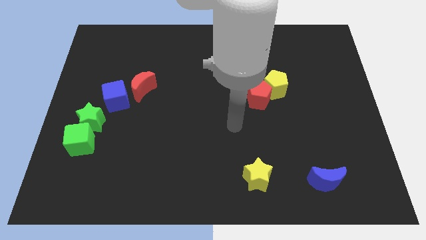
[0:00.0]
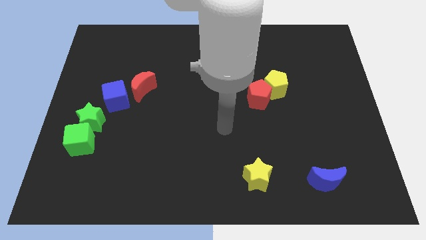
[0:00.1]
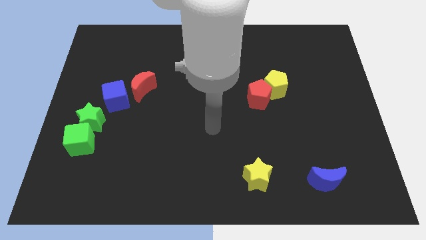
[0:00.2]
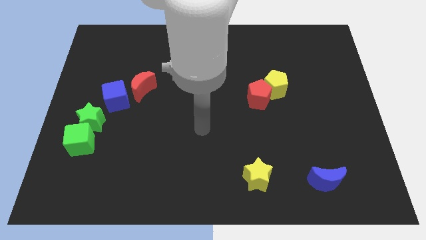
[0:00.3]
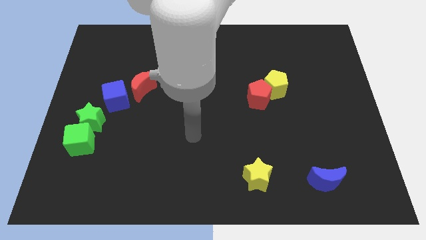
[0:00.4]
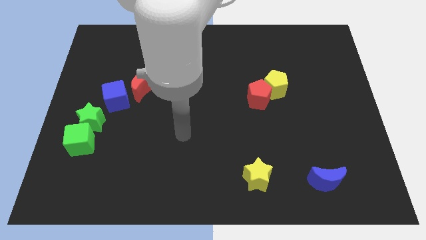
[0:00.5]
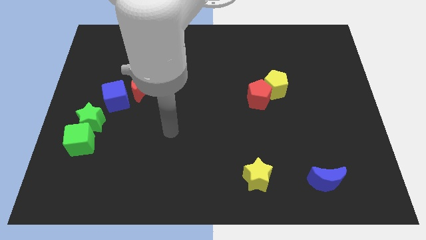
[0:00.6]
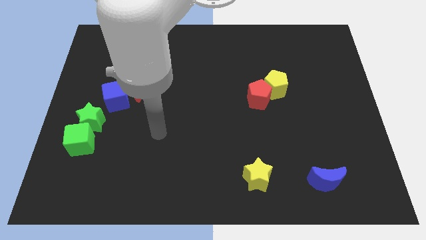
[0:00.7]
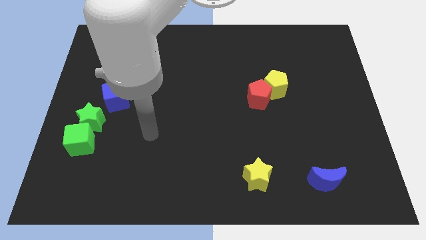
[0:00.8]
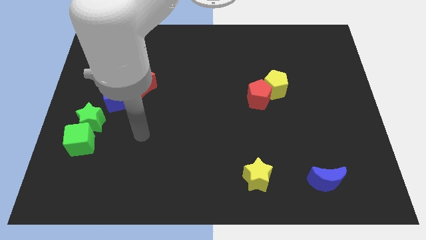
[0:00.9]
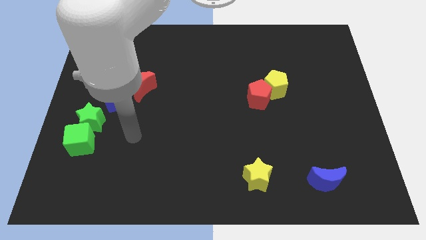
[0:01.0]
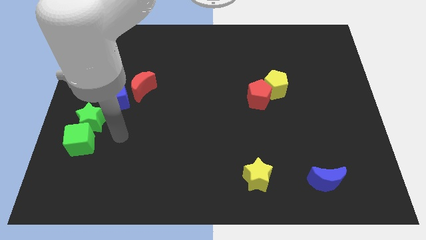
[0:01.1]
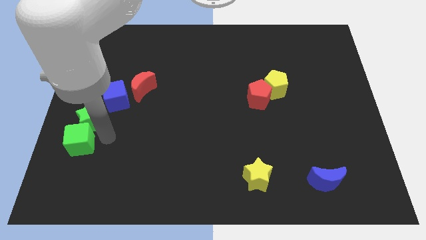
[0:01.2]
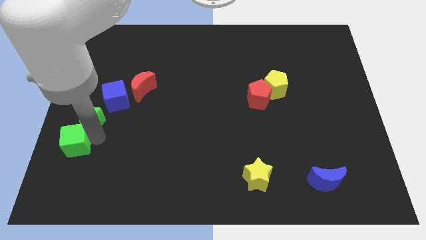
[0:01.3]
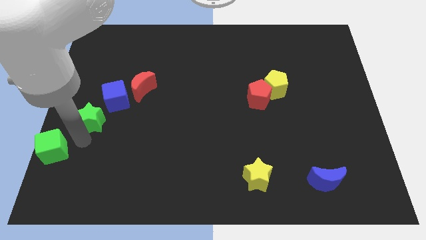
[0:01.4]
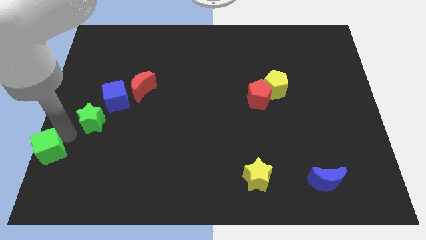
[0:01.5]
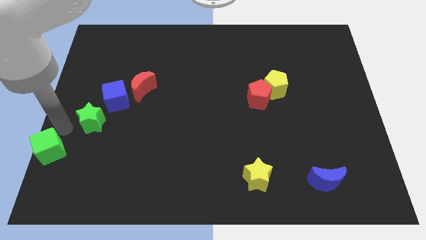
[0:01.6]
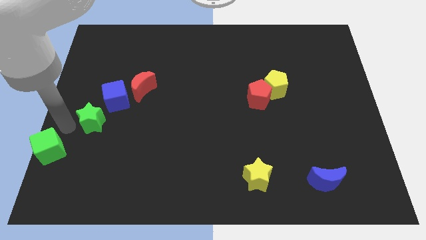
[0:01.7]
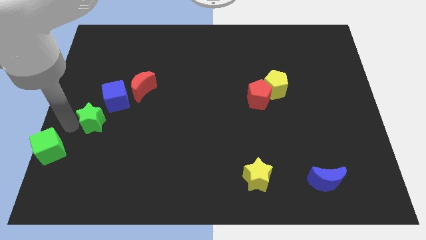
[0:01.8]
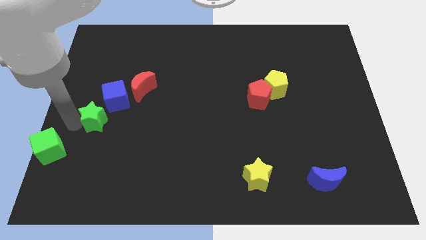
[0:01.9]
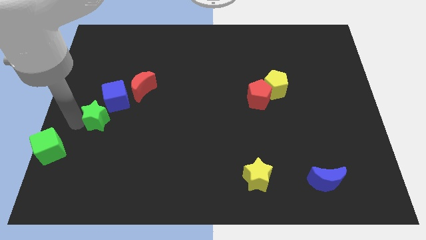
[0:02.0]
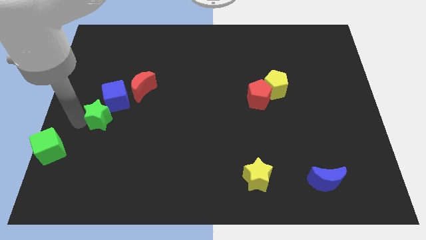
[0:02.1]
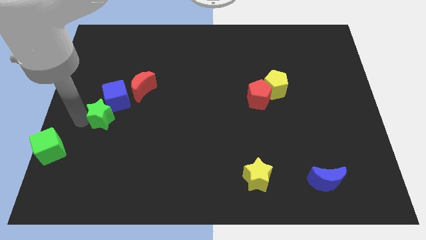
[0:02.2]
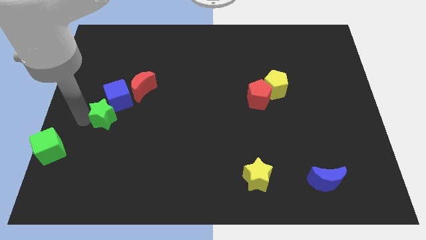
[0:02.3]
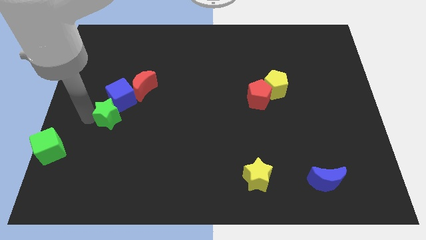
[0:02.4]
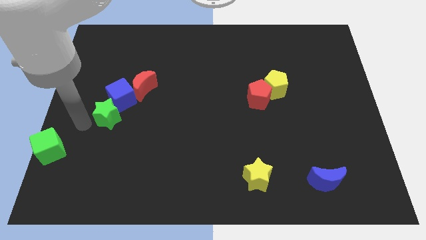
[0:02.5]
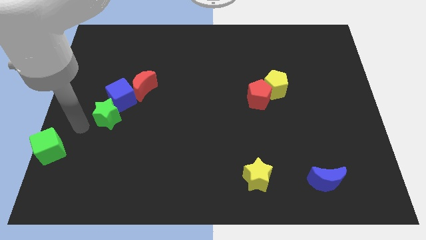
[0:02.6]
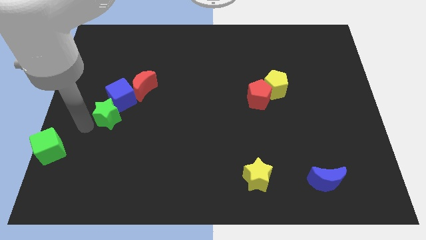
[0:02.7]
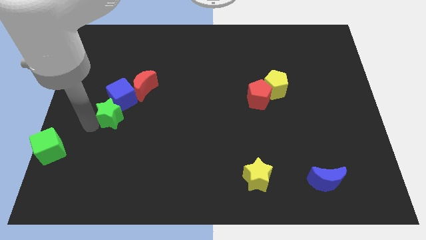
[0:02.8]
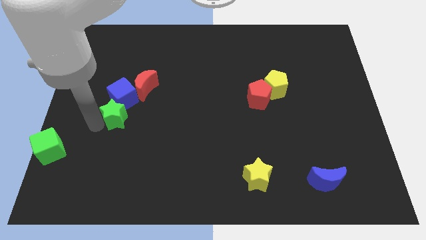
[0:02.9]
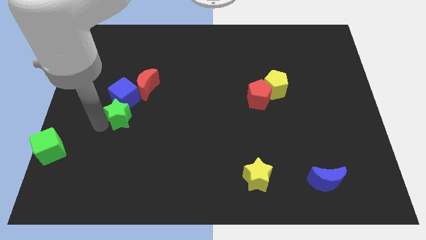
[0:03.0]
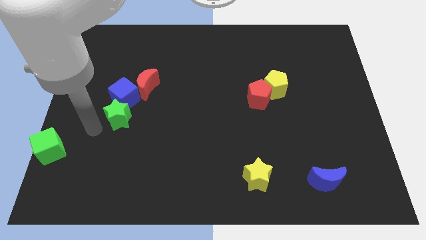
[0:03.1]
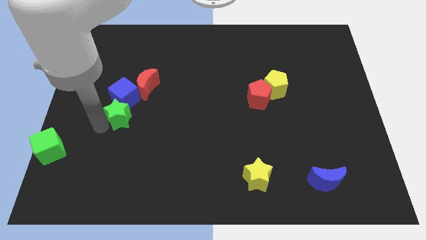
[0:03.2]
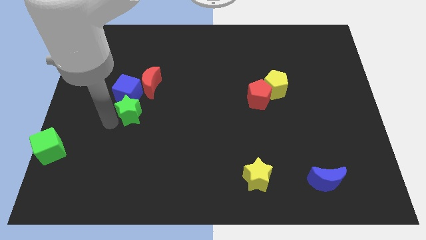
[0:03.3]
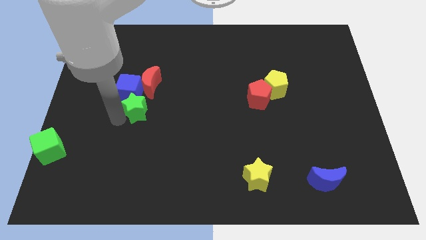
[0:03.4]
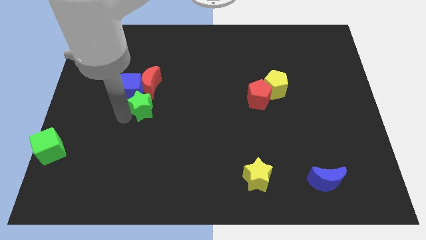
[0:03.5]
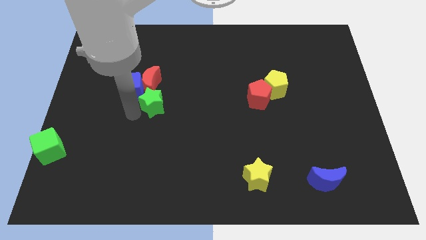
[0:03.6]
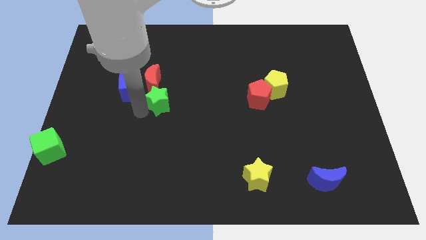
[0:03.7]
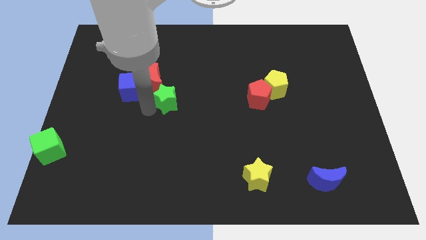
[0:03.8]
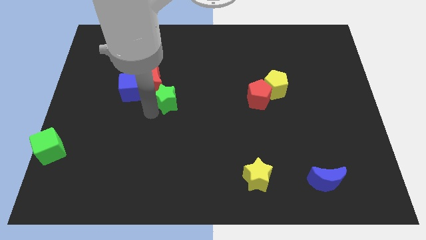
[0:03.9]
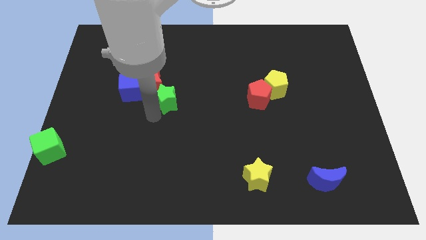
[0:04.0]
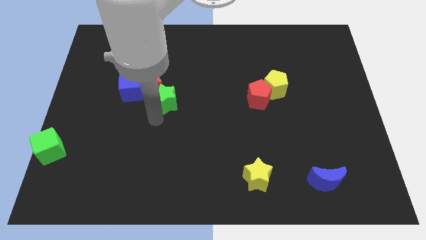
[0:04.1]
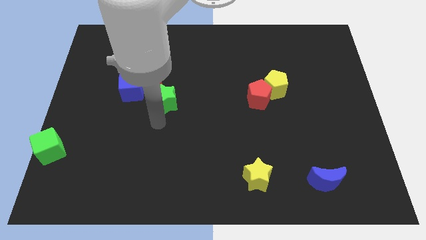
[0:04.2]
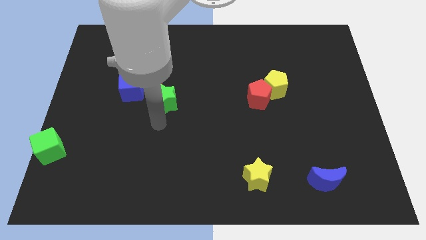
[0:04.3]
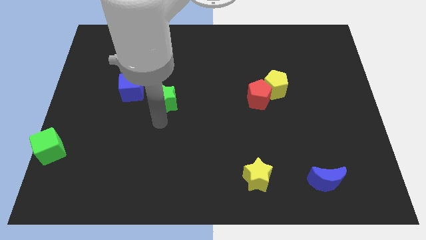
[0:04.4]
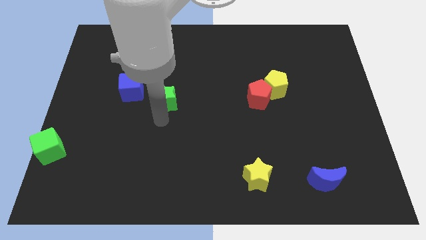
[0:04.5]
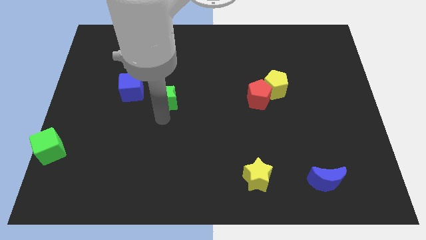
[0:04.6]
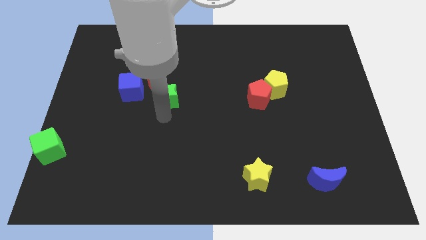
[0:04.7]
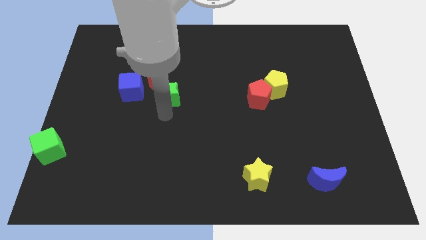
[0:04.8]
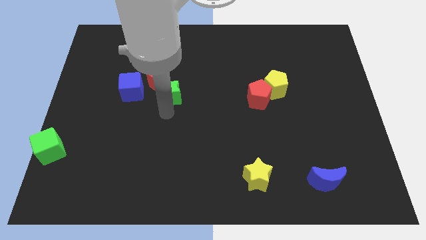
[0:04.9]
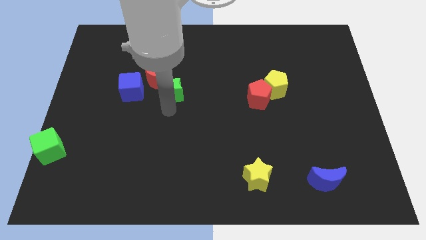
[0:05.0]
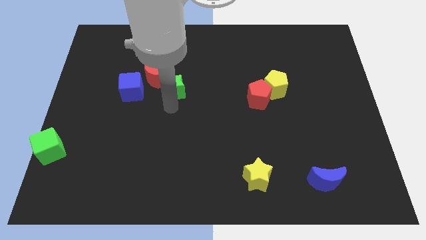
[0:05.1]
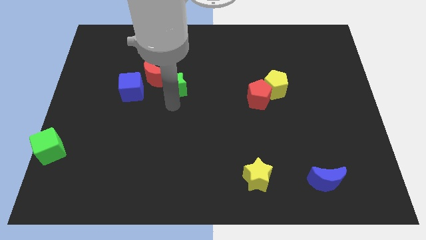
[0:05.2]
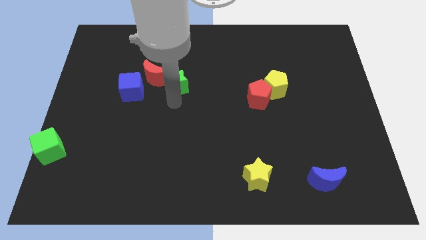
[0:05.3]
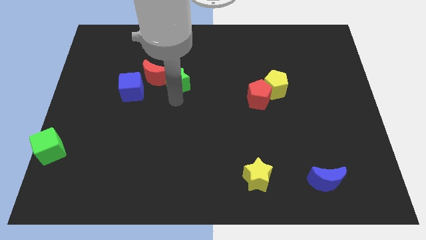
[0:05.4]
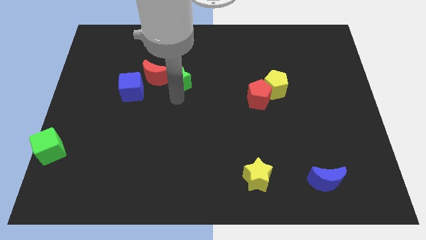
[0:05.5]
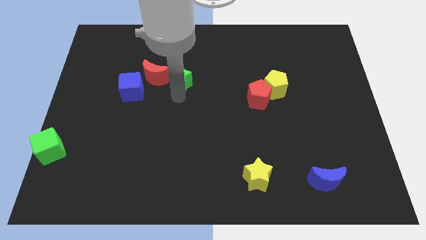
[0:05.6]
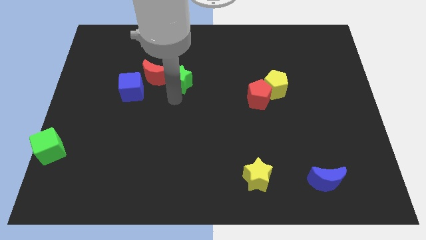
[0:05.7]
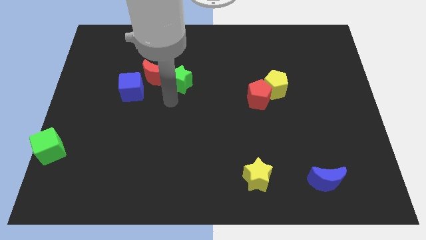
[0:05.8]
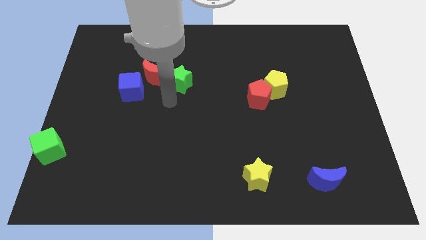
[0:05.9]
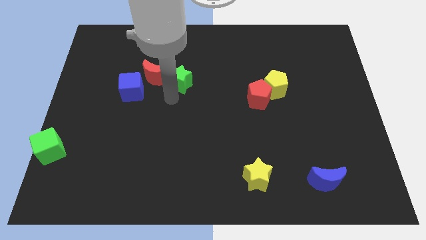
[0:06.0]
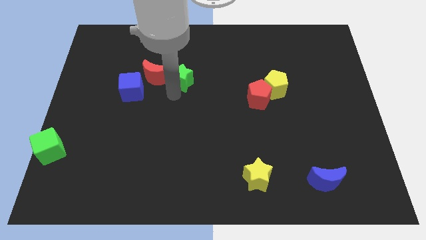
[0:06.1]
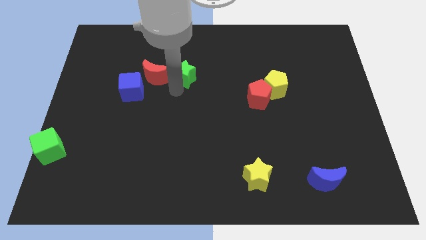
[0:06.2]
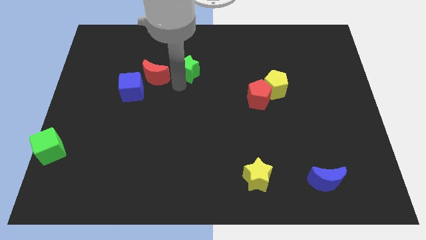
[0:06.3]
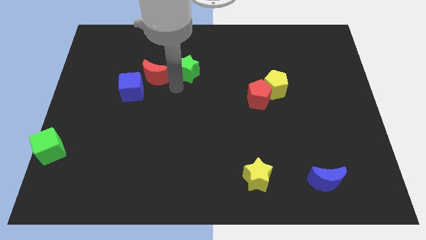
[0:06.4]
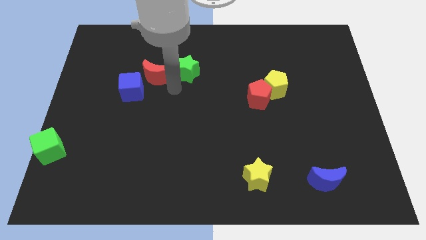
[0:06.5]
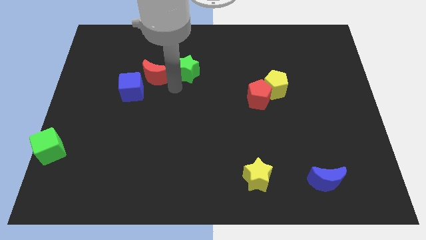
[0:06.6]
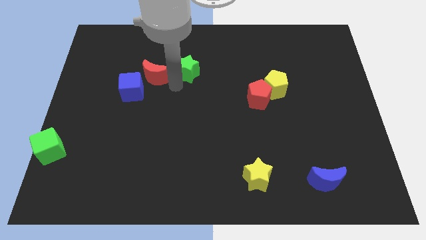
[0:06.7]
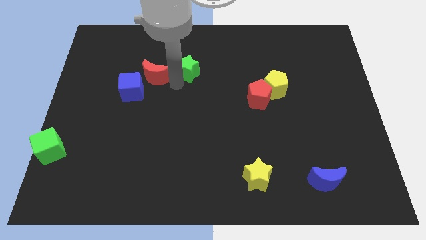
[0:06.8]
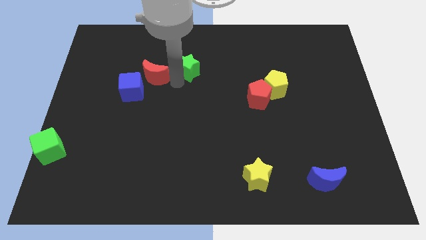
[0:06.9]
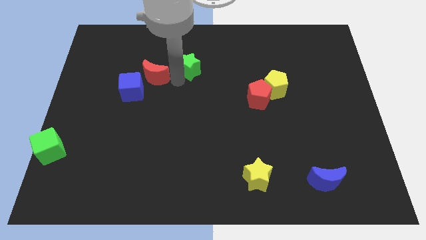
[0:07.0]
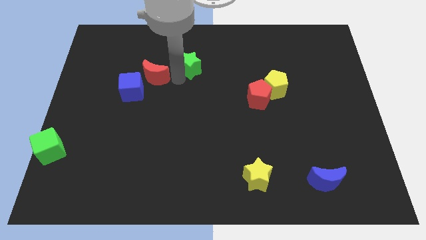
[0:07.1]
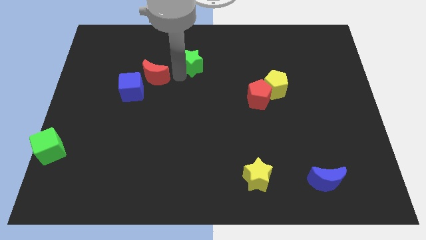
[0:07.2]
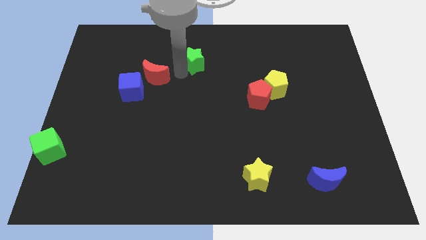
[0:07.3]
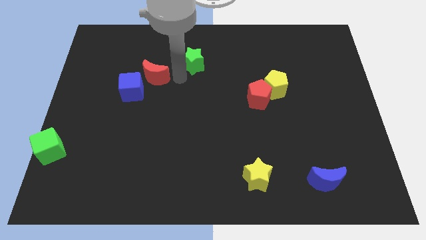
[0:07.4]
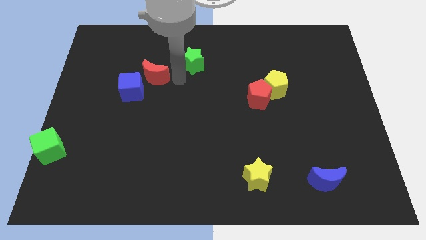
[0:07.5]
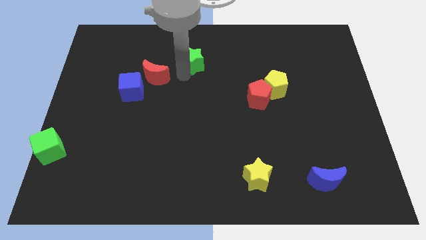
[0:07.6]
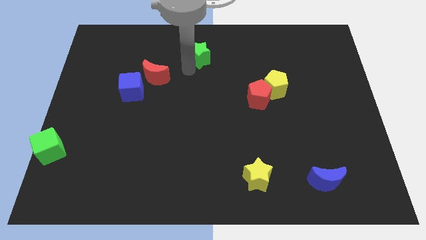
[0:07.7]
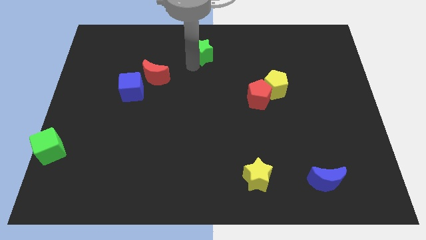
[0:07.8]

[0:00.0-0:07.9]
put the green star to the top side
